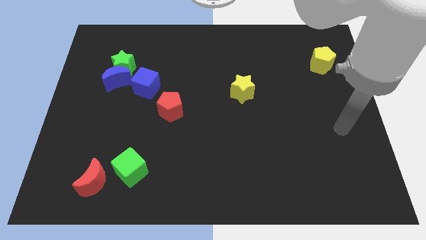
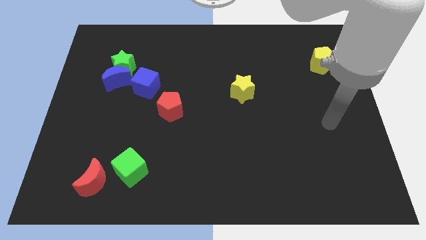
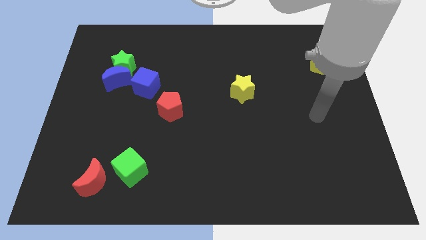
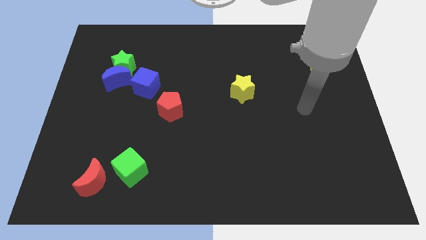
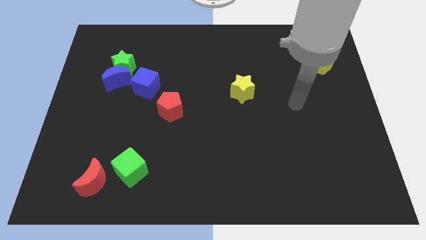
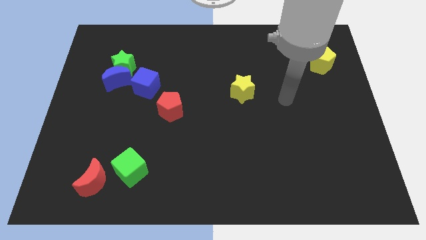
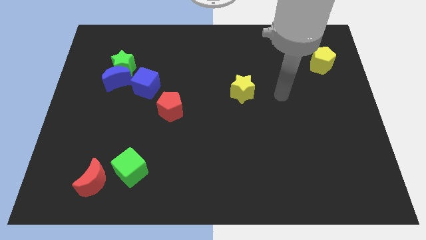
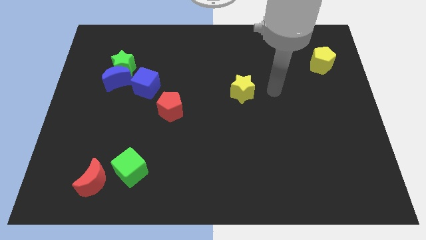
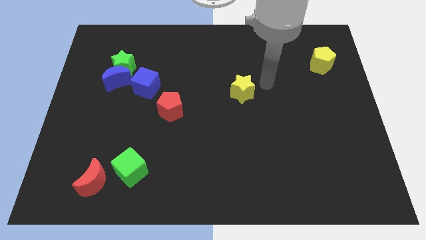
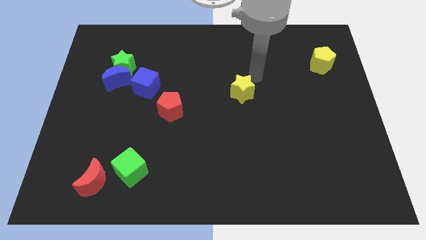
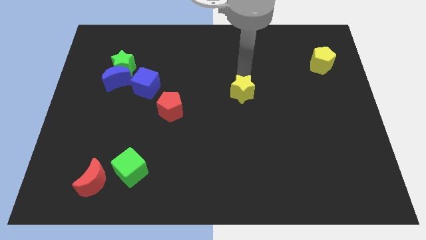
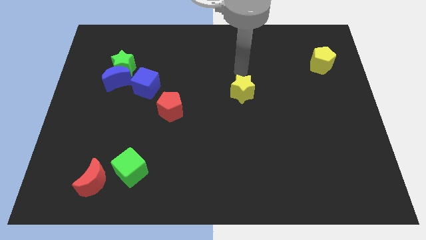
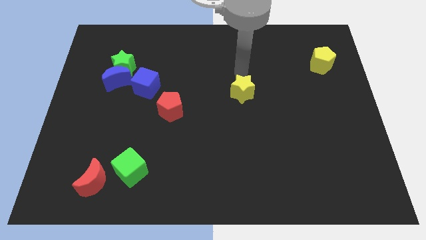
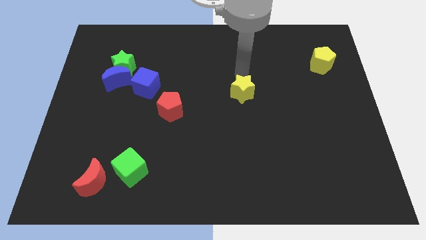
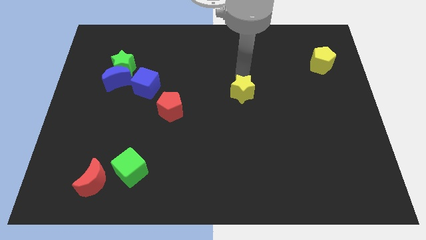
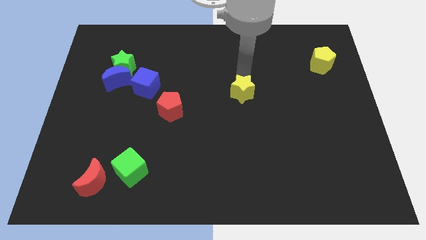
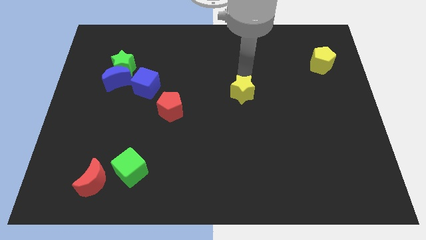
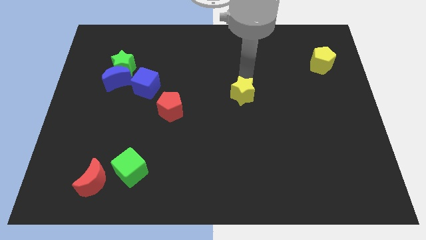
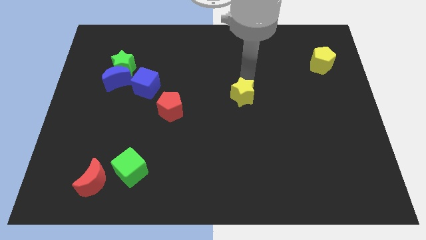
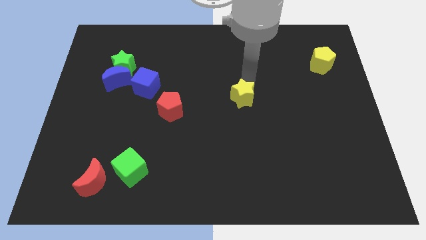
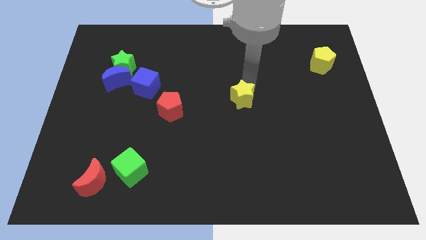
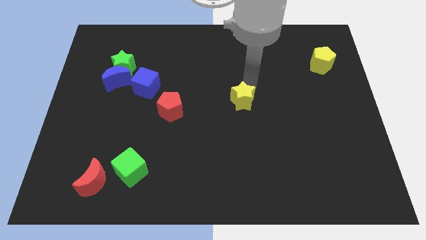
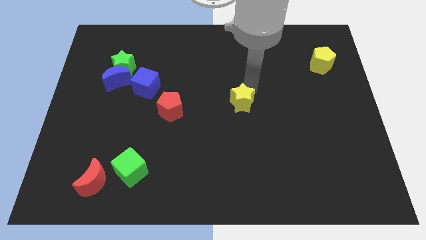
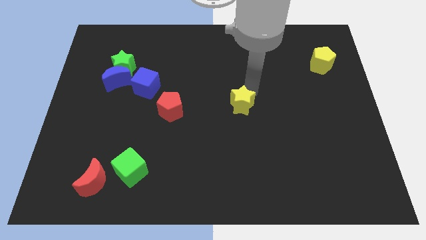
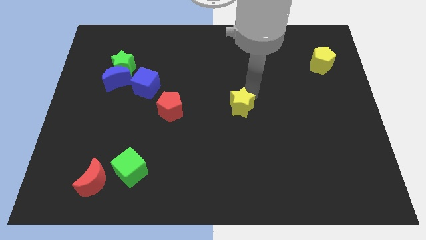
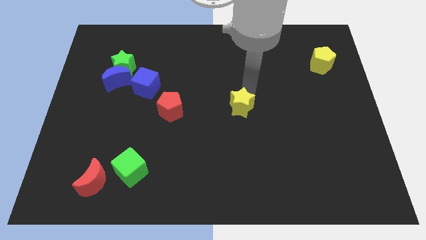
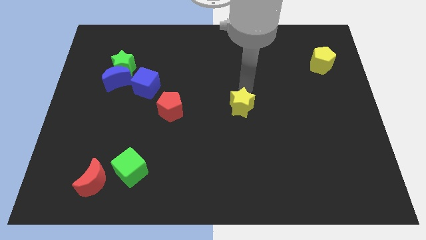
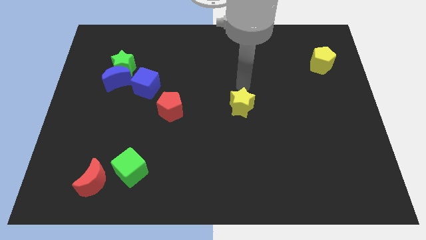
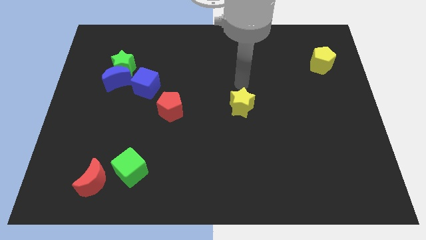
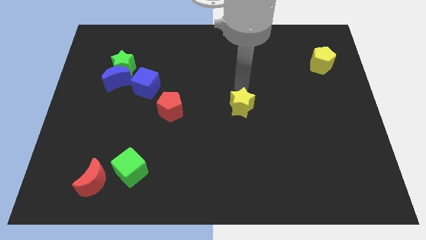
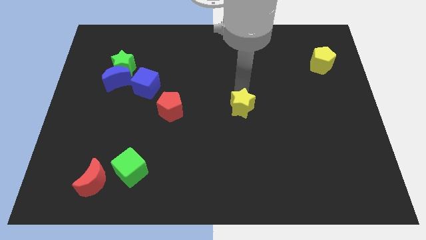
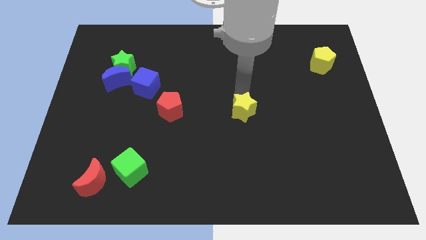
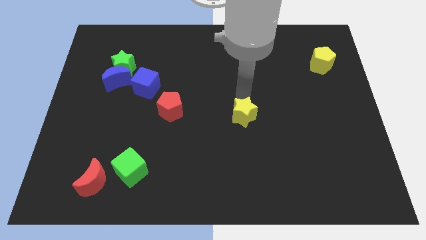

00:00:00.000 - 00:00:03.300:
slide the yellow star downwards a little bit

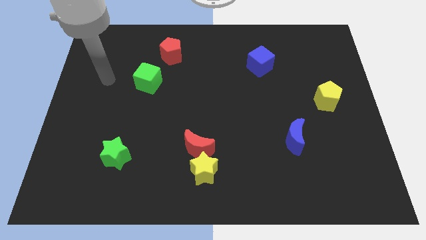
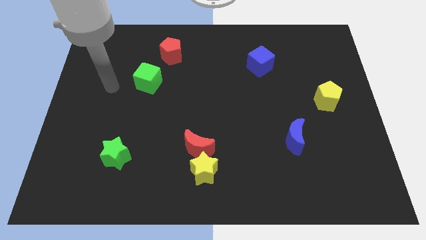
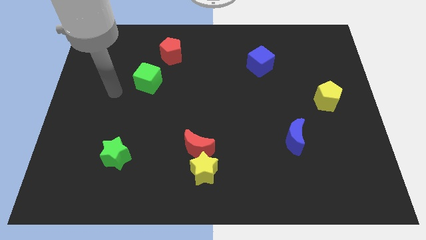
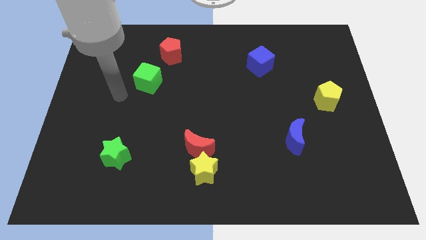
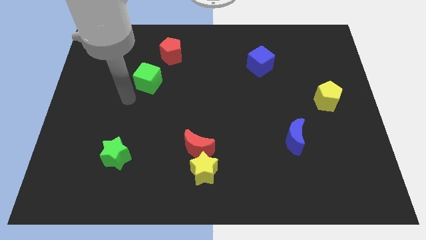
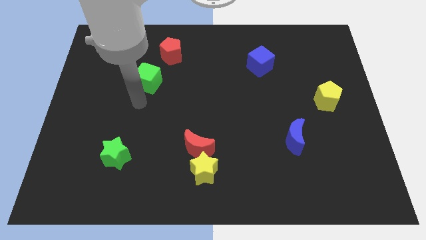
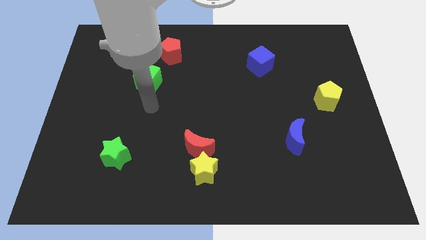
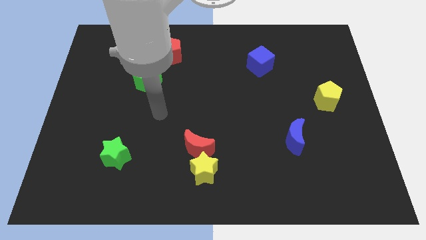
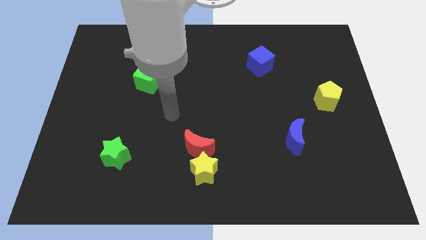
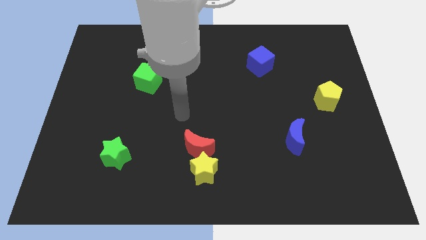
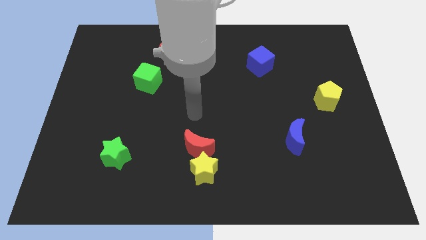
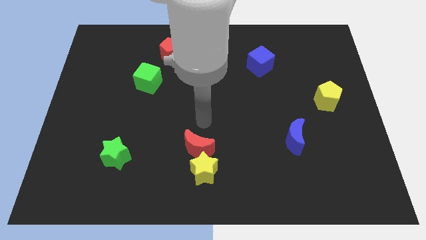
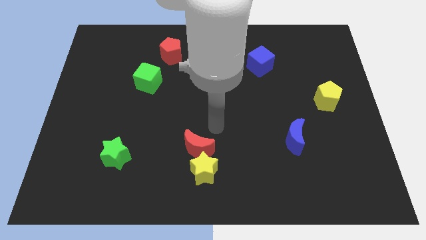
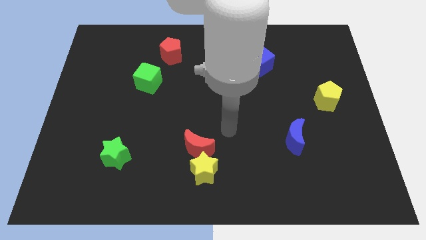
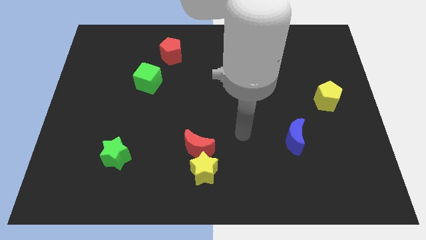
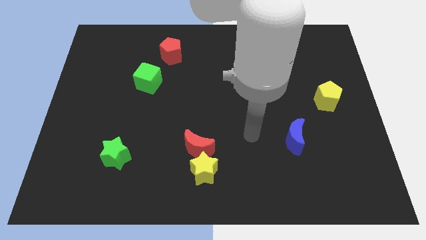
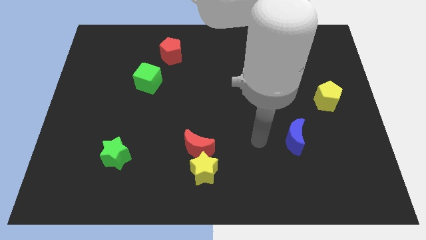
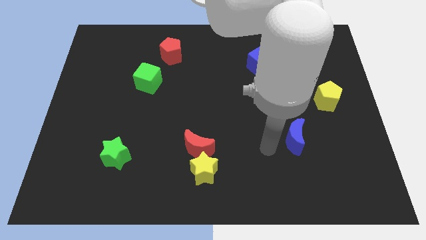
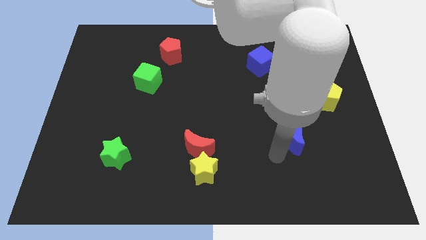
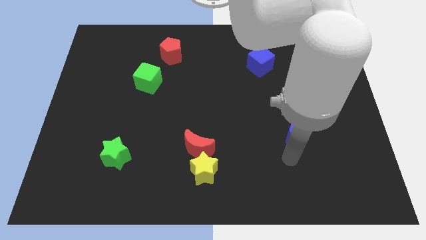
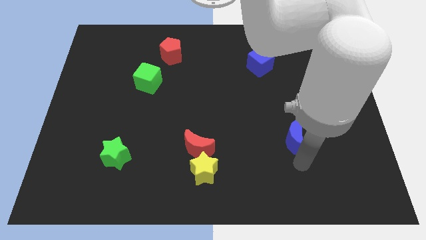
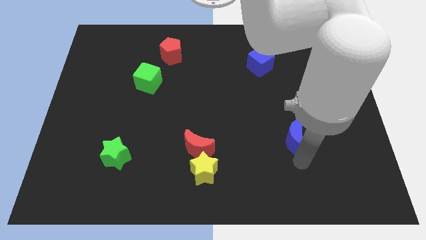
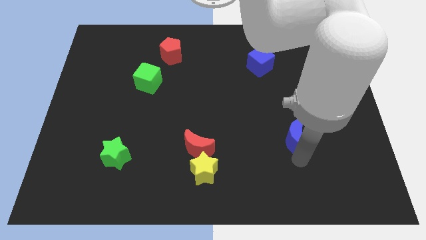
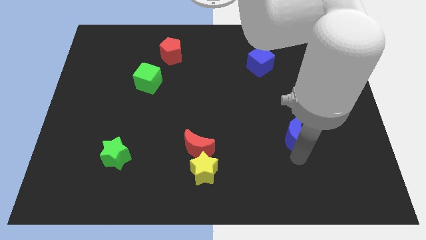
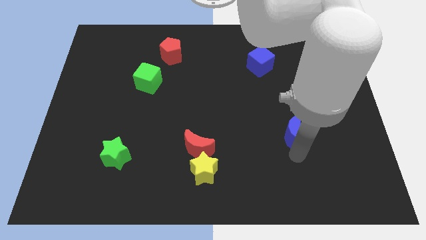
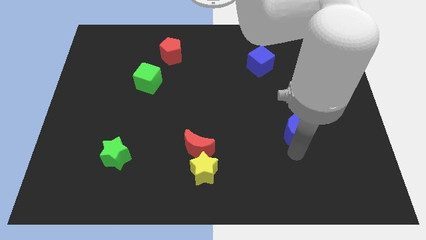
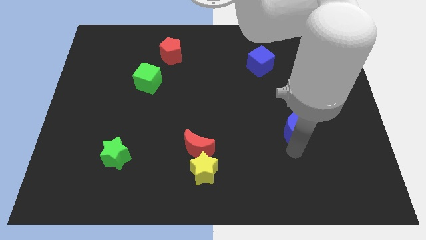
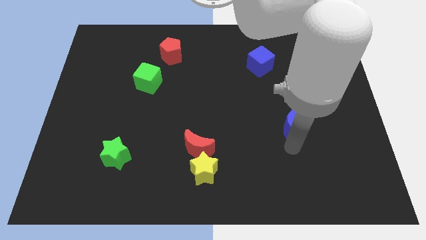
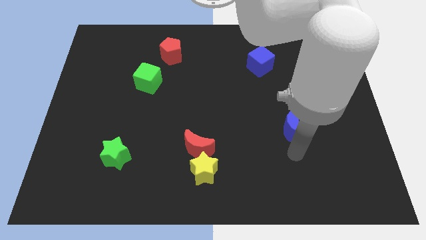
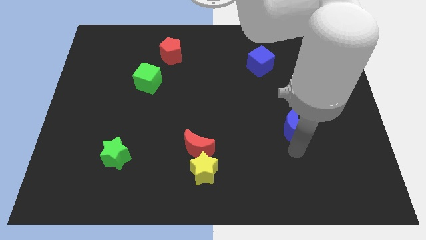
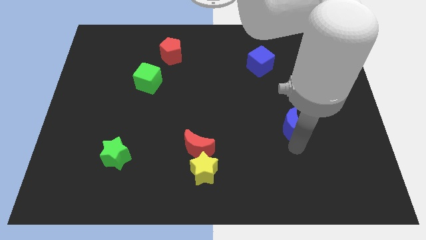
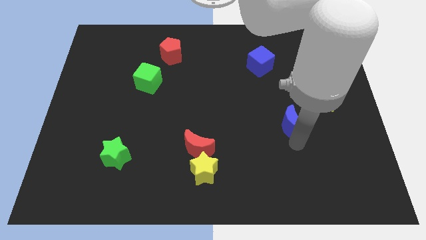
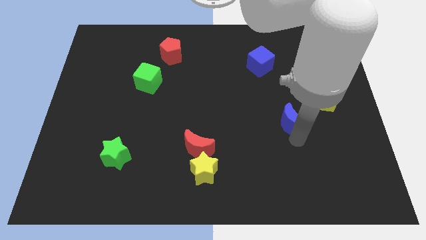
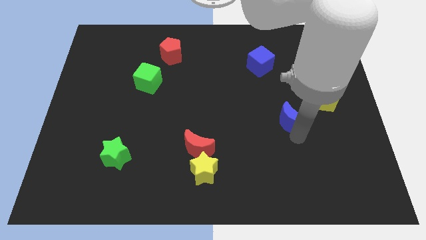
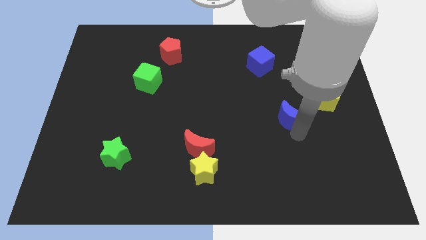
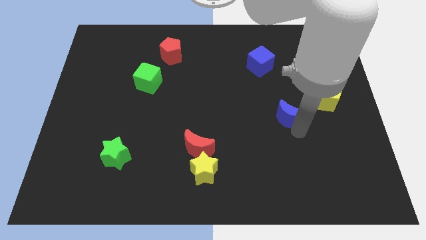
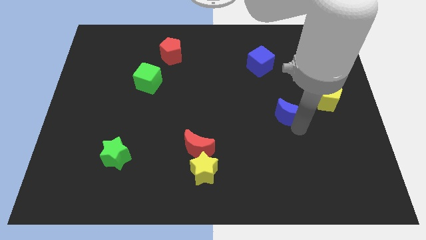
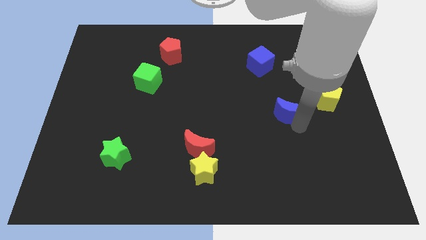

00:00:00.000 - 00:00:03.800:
push the blue moon a bit upwards
